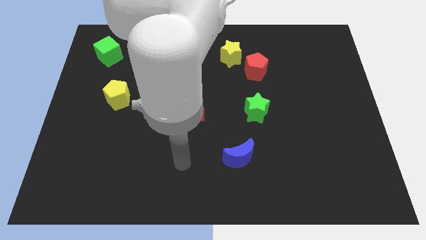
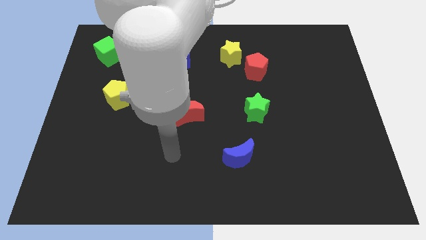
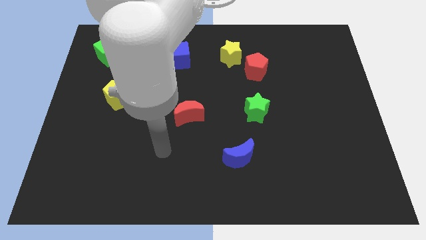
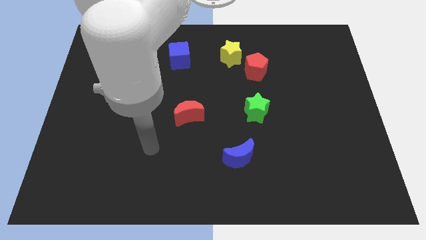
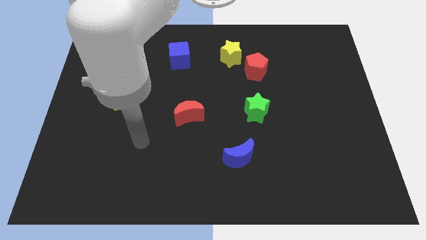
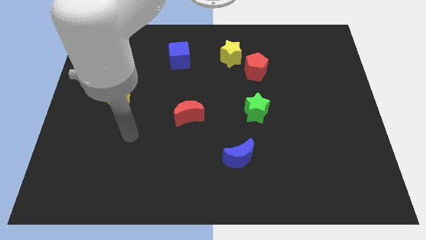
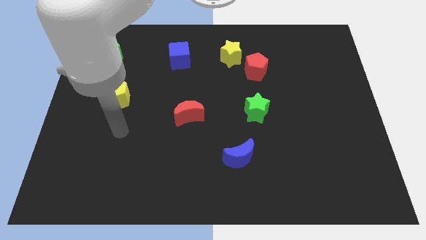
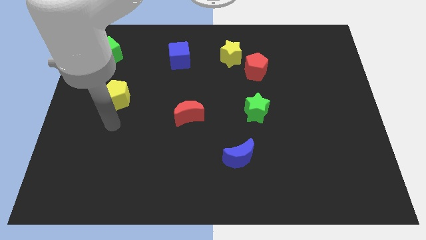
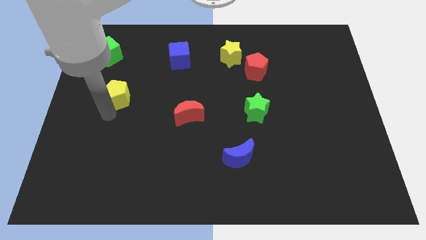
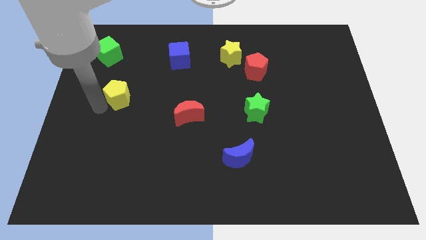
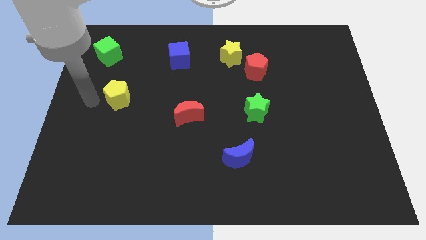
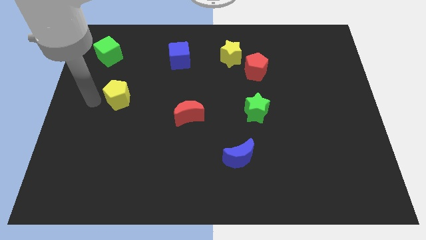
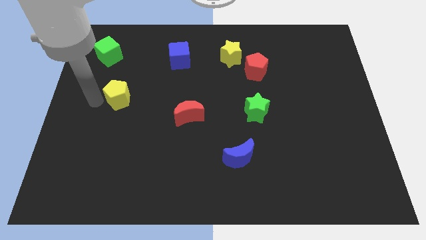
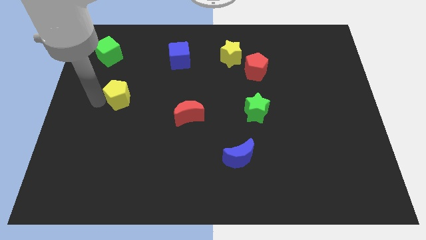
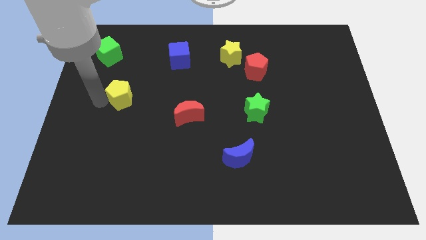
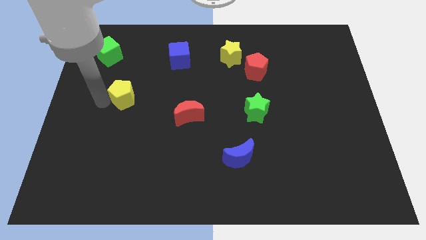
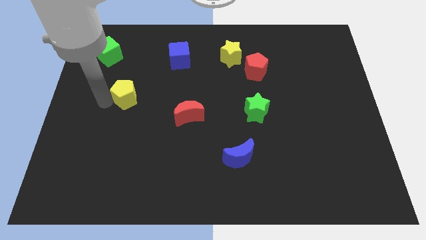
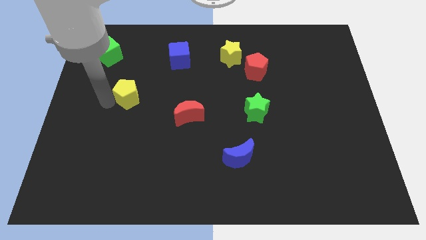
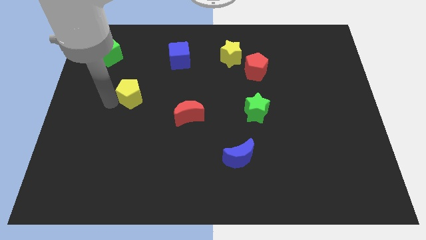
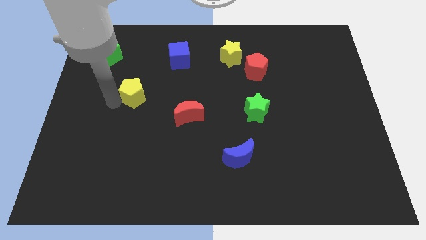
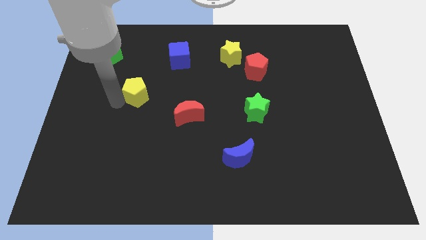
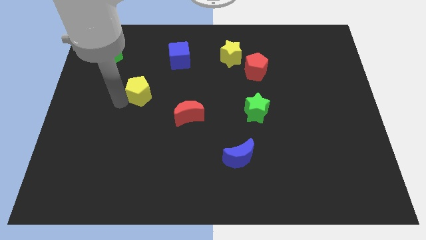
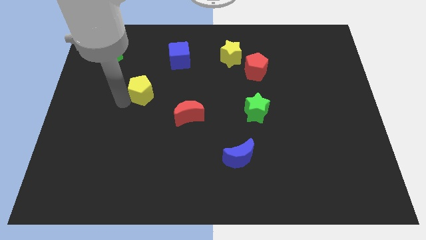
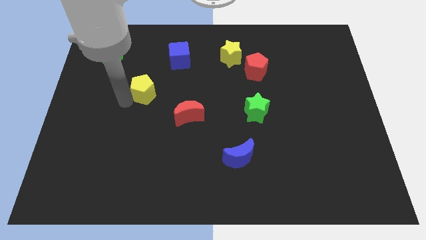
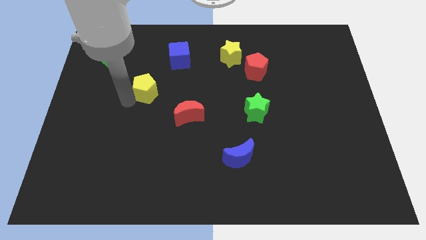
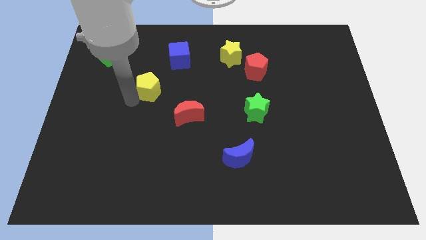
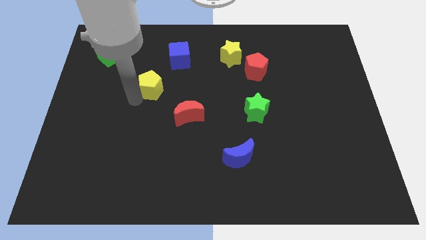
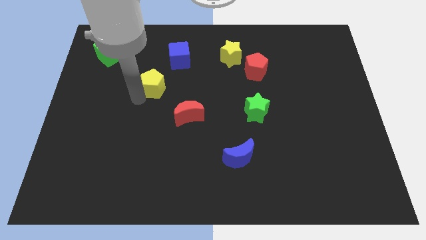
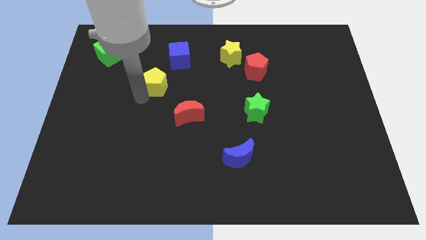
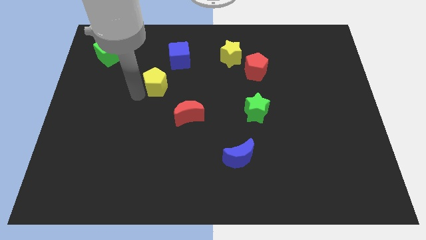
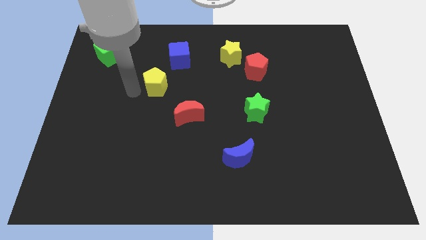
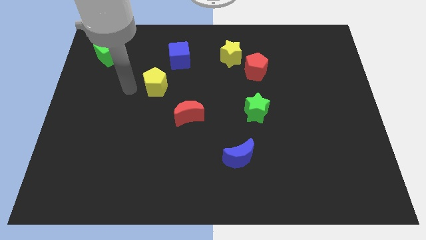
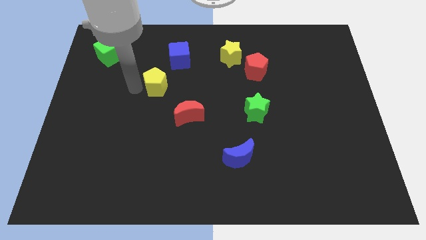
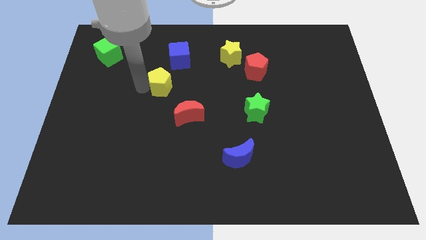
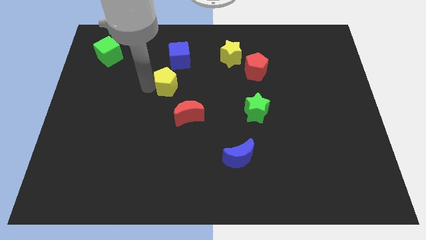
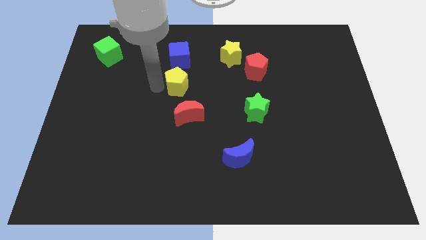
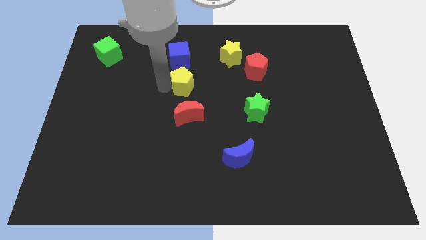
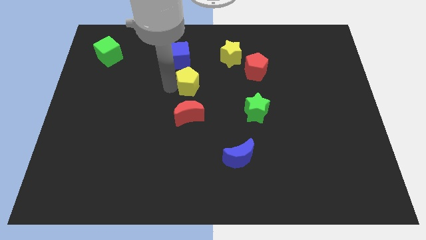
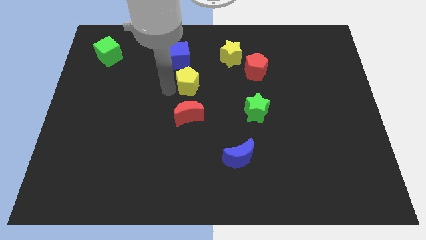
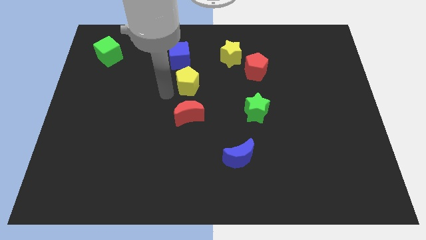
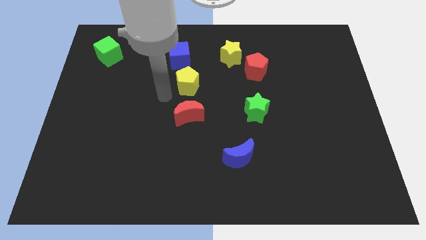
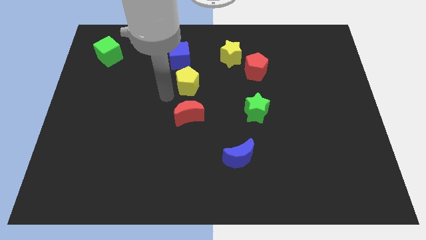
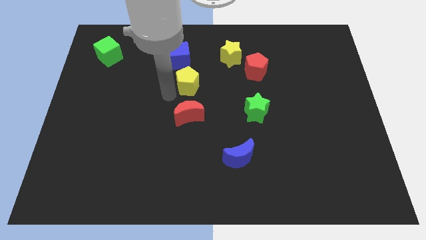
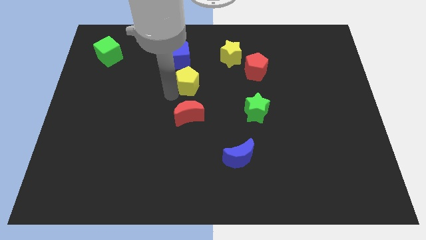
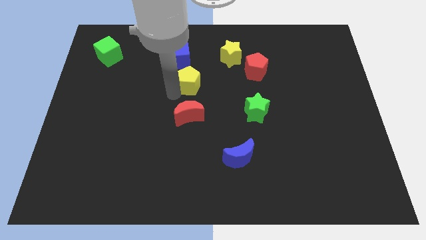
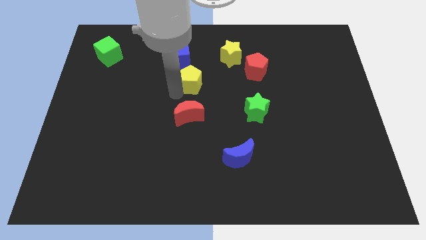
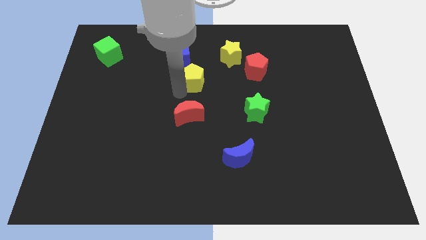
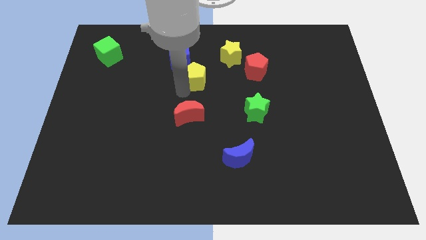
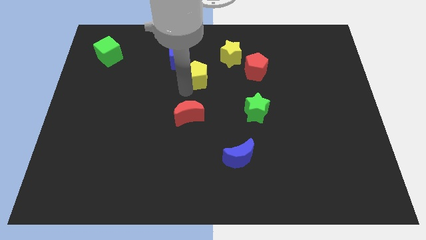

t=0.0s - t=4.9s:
move the yellow pentagon just left of the red pentagon

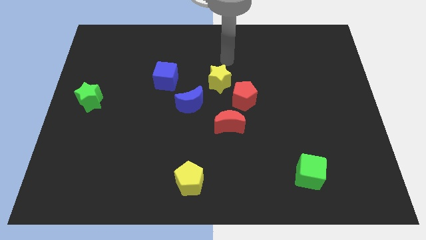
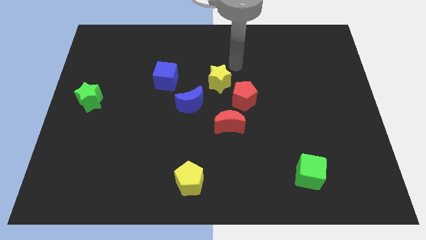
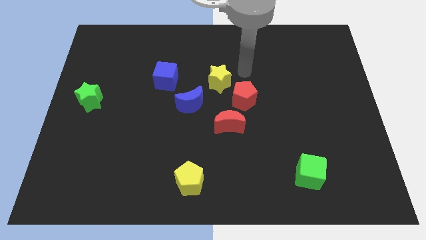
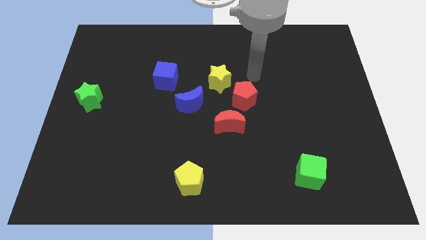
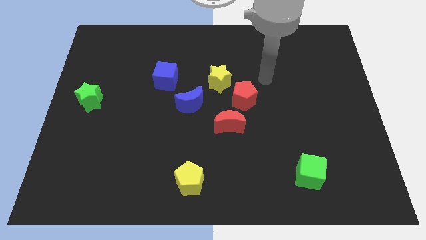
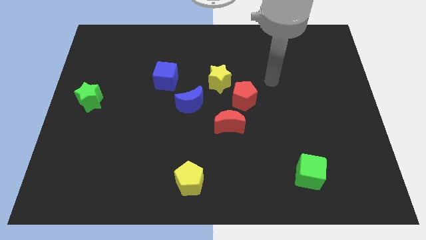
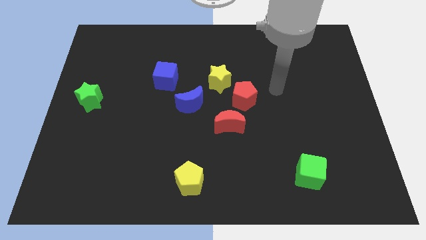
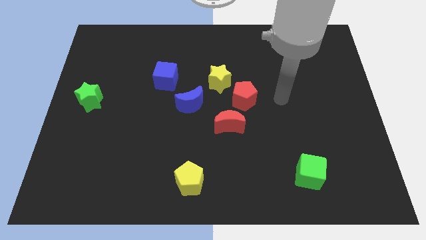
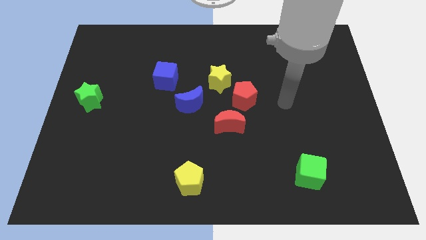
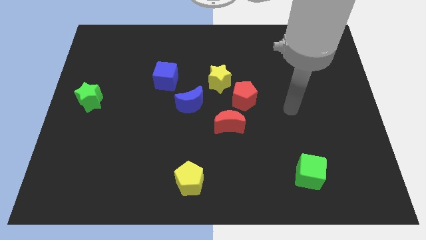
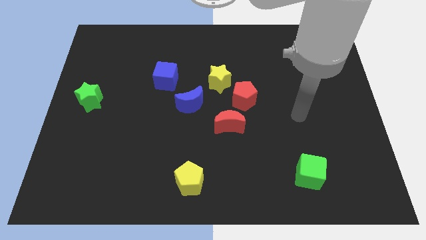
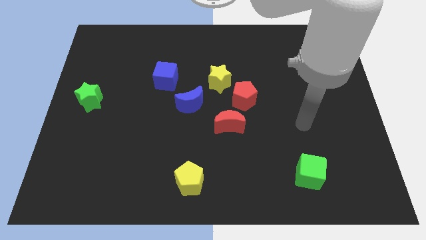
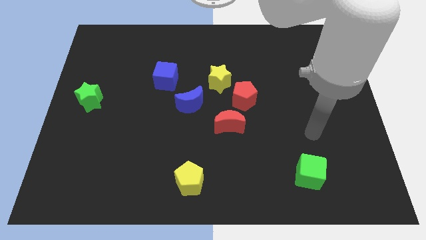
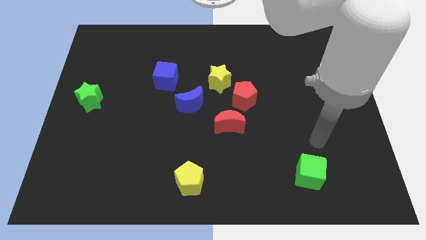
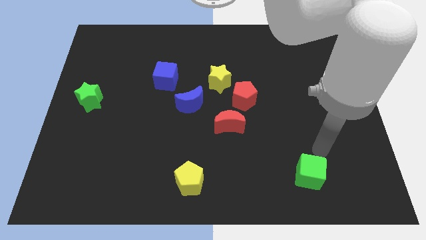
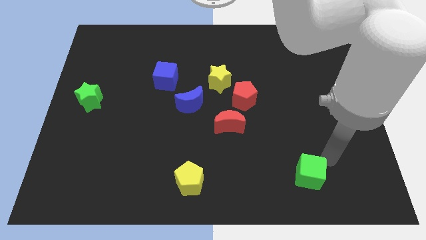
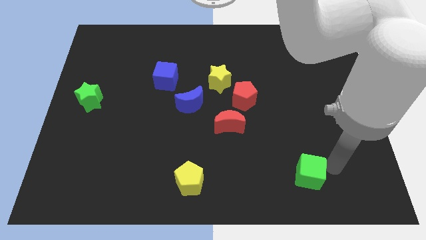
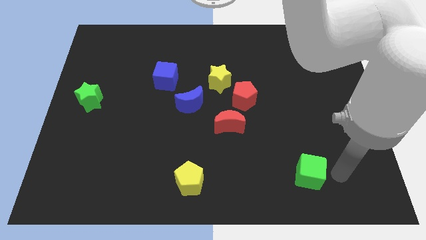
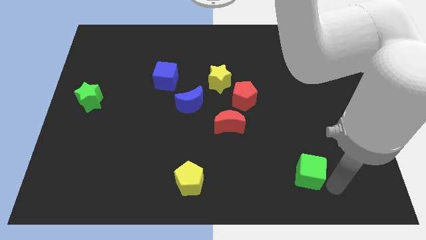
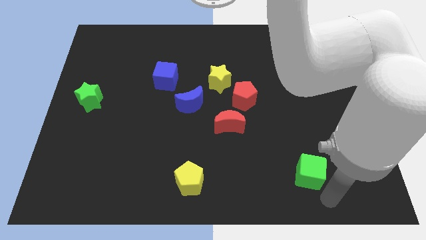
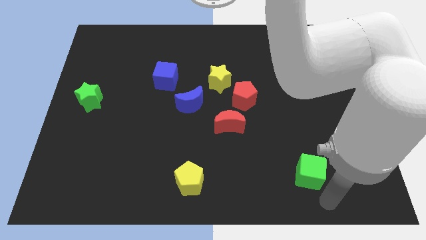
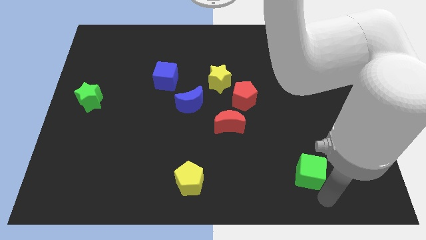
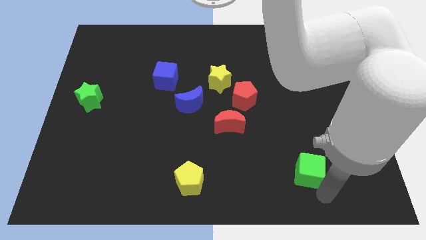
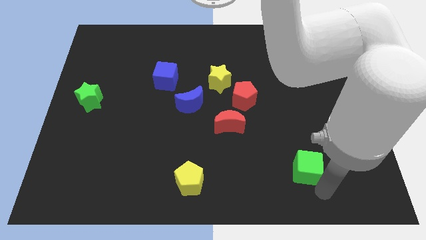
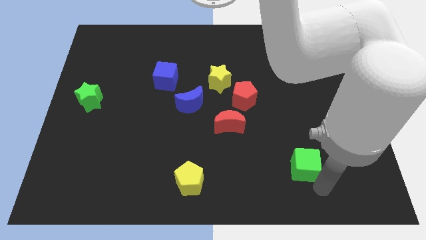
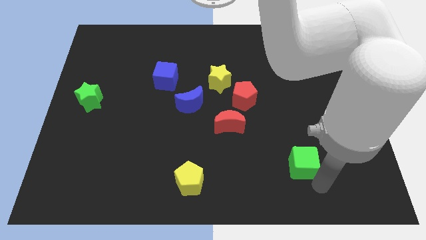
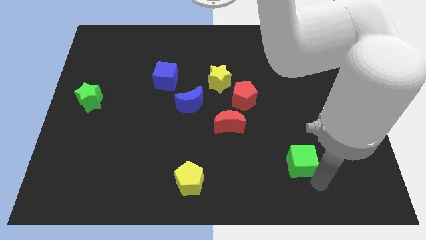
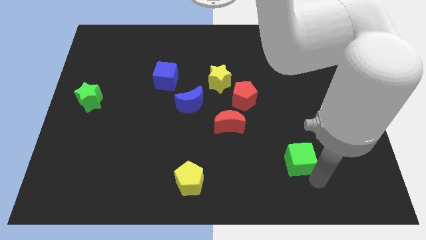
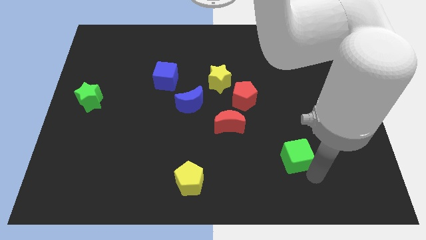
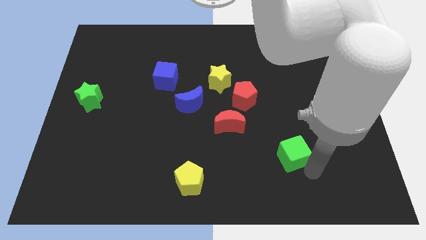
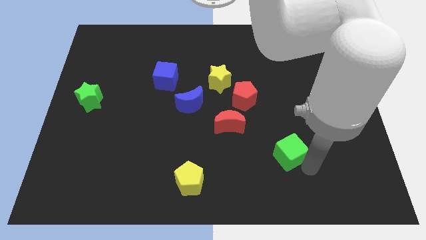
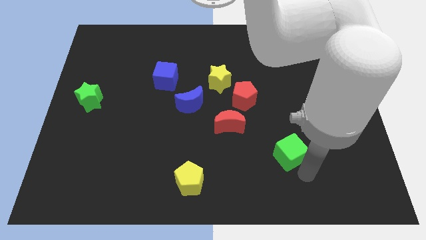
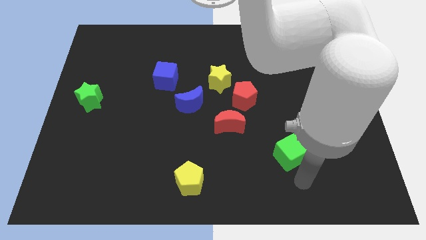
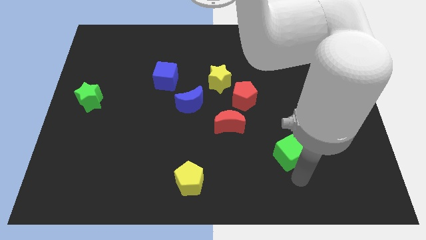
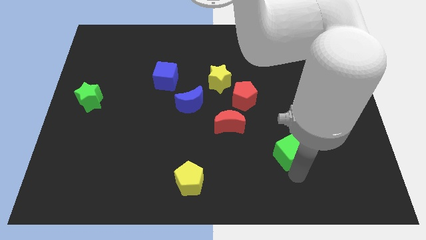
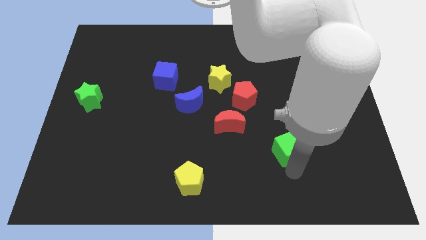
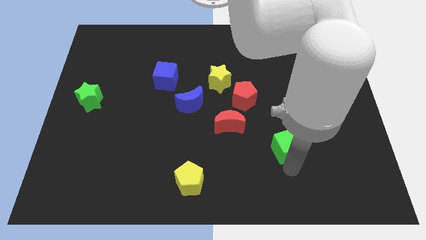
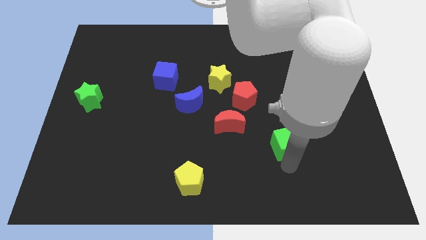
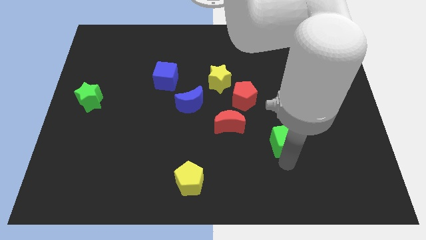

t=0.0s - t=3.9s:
move the green cube just right of the red moon
